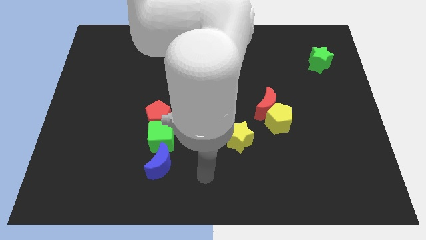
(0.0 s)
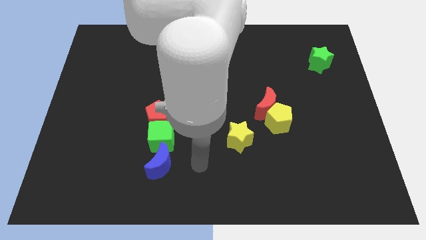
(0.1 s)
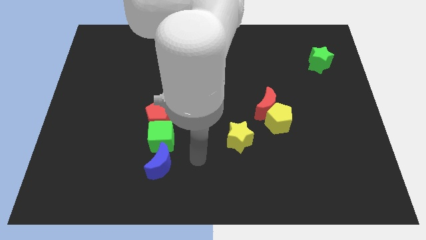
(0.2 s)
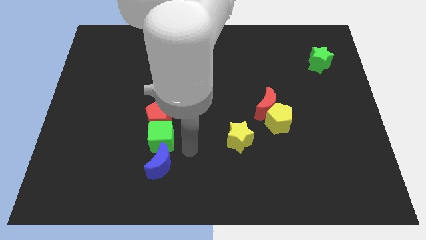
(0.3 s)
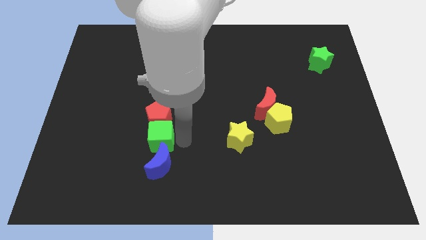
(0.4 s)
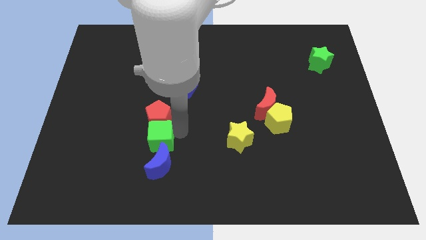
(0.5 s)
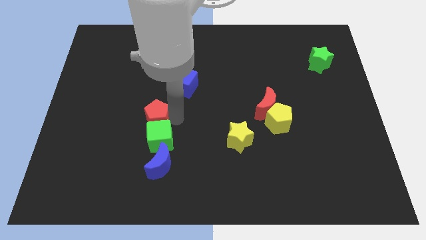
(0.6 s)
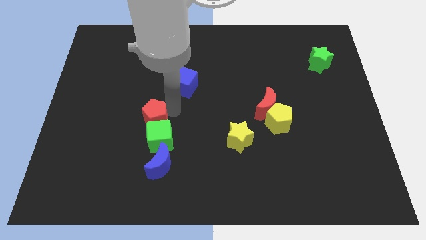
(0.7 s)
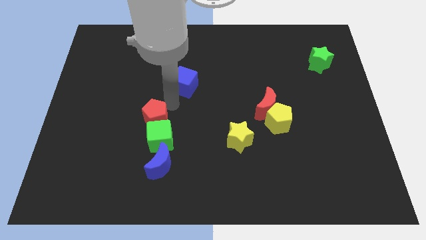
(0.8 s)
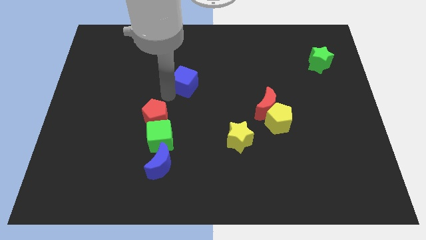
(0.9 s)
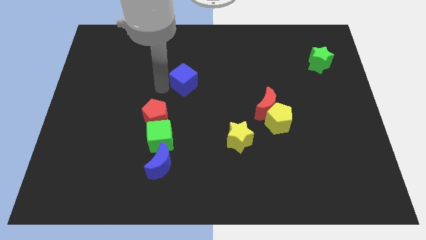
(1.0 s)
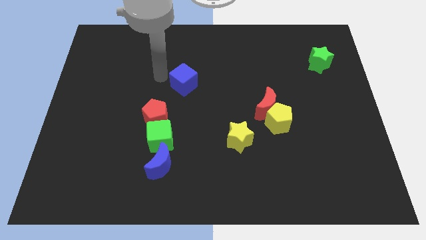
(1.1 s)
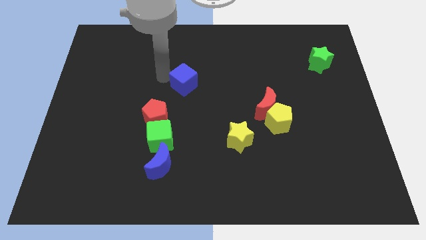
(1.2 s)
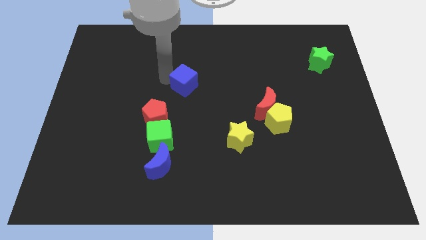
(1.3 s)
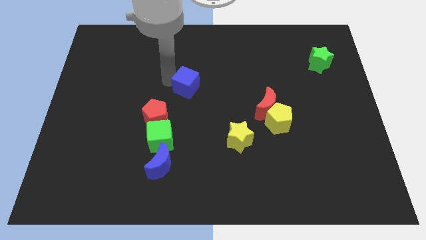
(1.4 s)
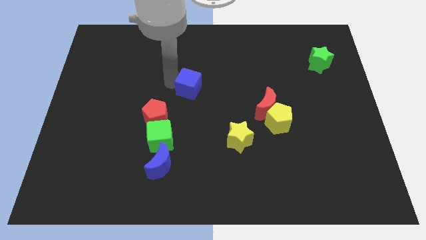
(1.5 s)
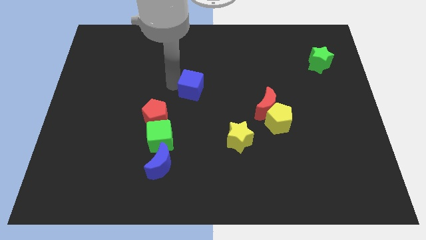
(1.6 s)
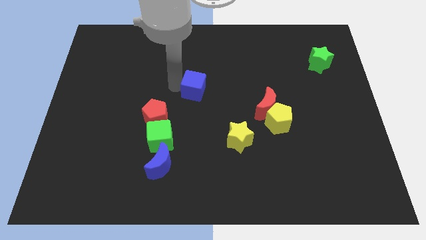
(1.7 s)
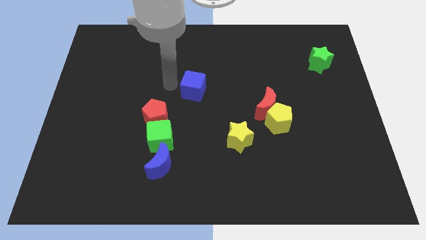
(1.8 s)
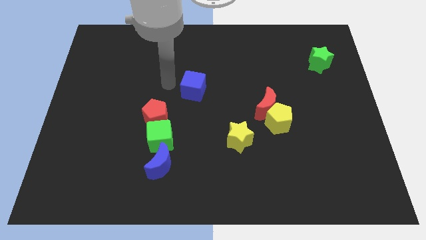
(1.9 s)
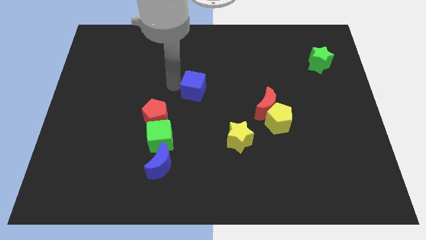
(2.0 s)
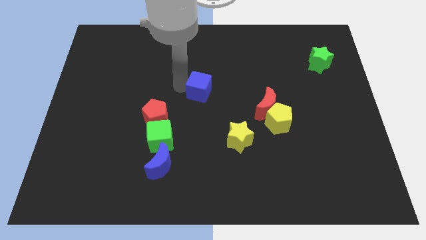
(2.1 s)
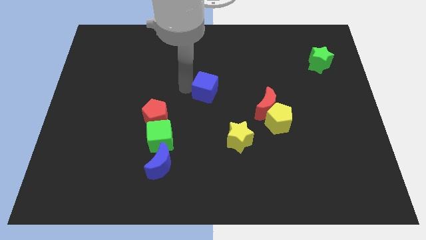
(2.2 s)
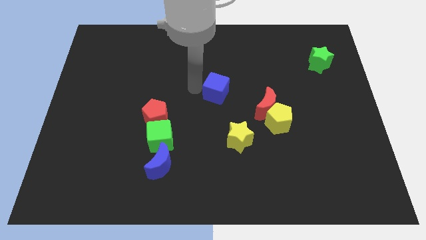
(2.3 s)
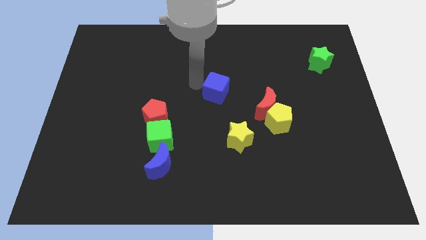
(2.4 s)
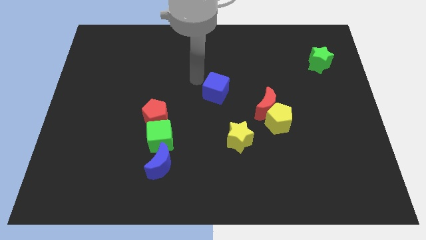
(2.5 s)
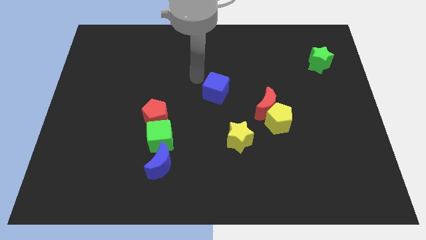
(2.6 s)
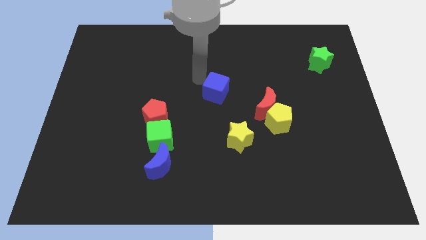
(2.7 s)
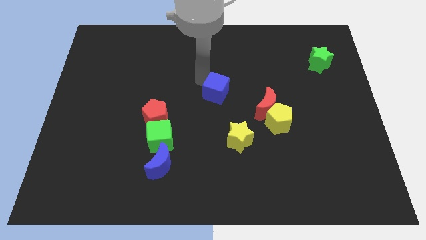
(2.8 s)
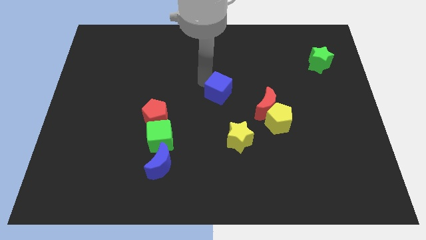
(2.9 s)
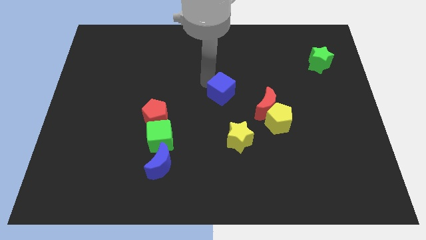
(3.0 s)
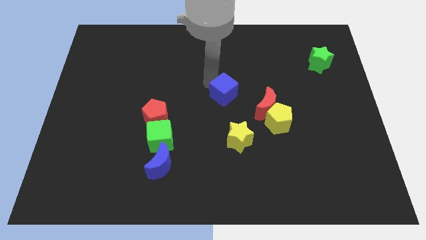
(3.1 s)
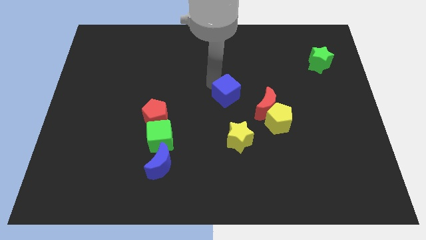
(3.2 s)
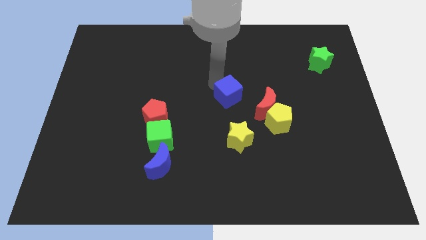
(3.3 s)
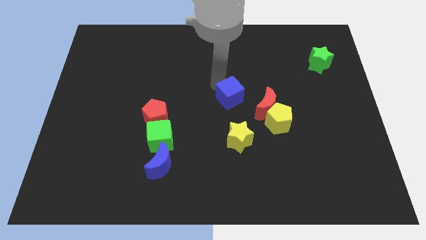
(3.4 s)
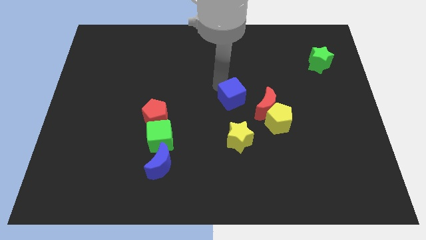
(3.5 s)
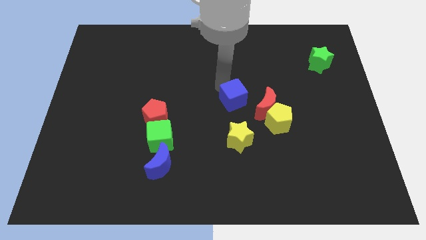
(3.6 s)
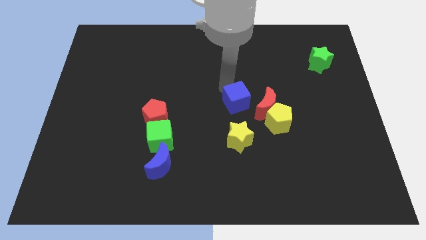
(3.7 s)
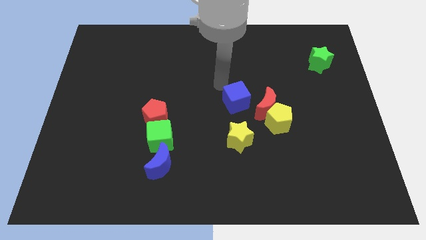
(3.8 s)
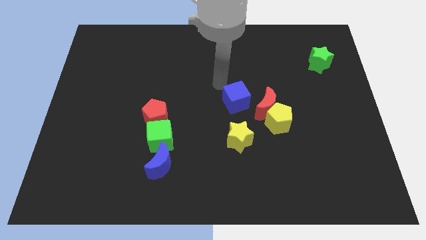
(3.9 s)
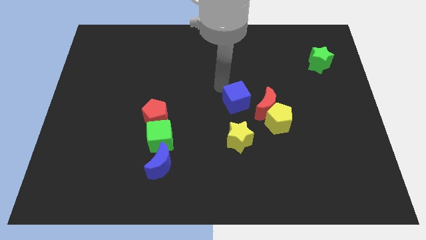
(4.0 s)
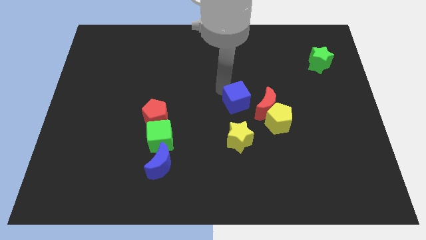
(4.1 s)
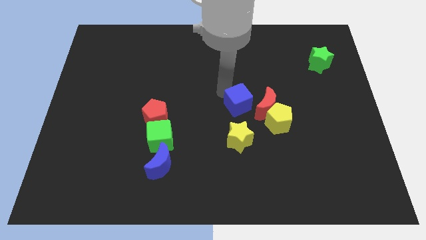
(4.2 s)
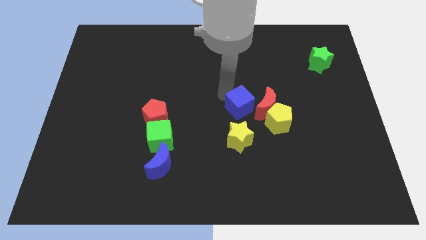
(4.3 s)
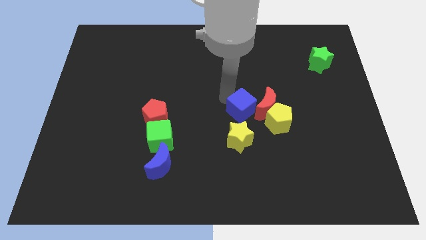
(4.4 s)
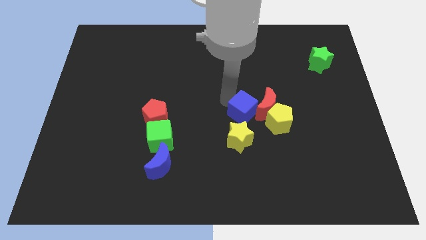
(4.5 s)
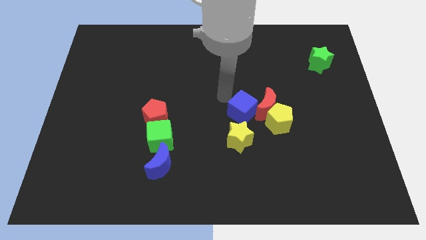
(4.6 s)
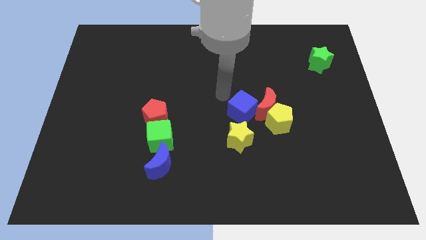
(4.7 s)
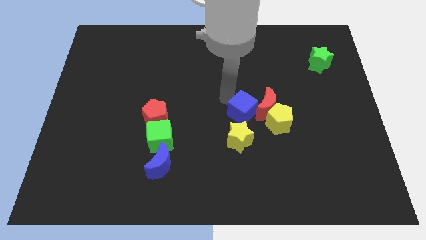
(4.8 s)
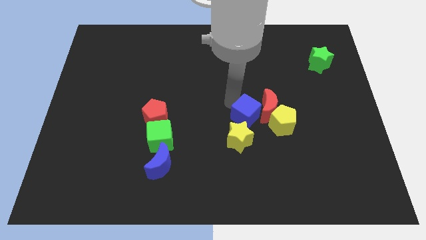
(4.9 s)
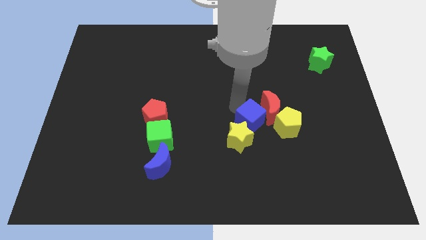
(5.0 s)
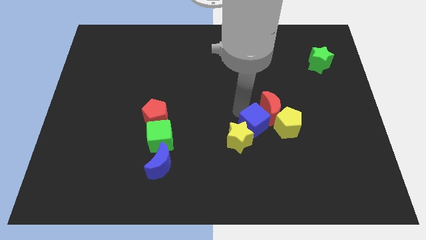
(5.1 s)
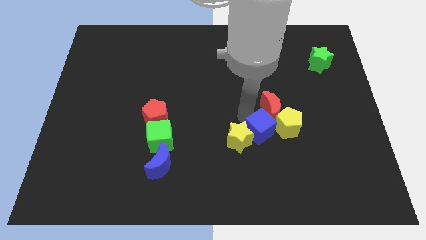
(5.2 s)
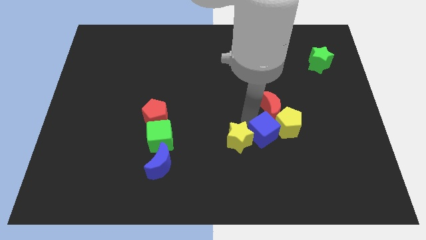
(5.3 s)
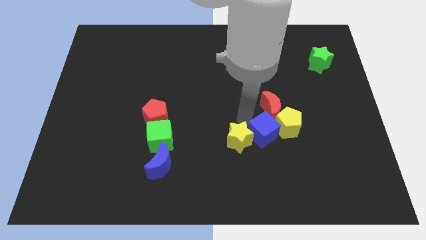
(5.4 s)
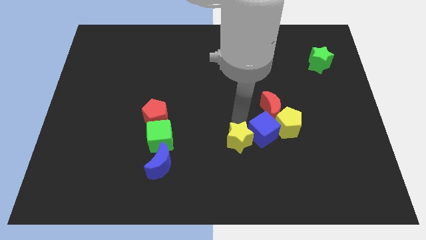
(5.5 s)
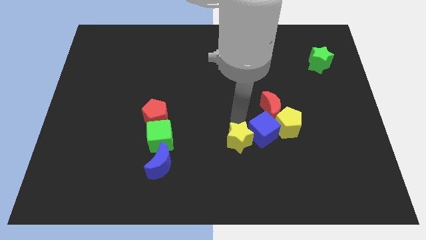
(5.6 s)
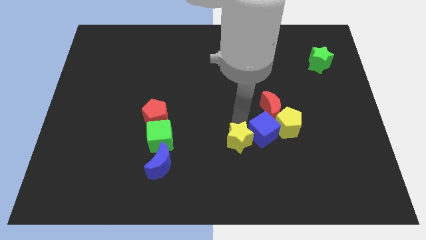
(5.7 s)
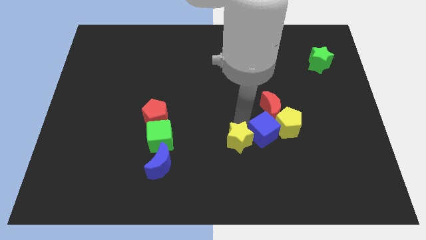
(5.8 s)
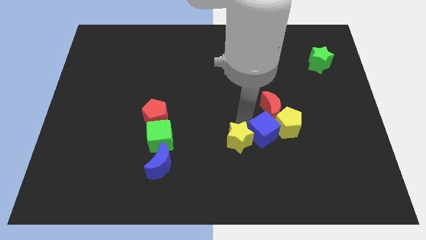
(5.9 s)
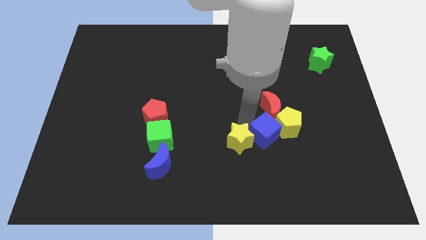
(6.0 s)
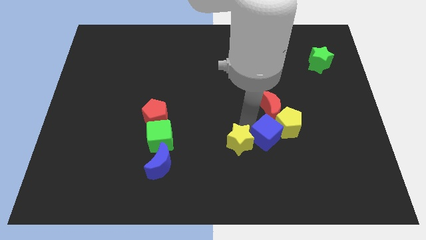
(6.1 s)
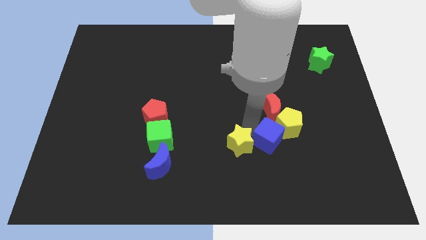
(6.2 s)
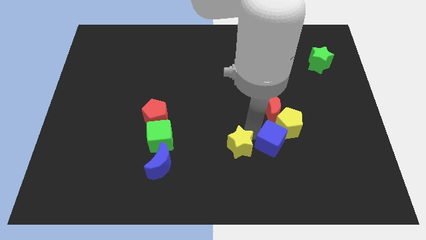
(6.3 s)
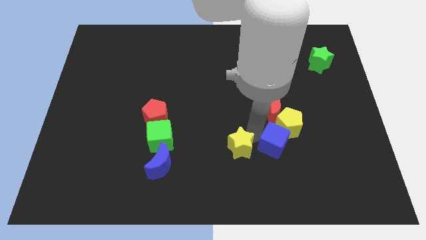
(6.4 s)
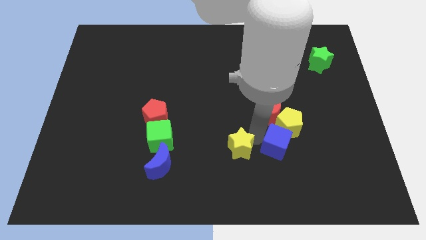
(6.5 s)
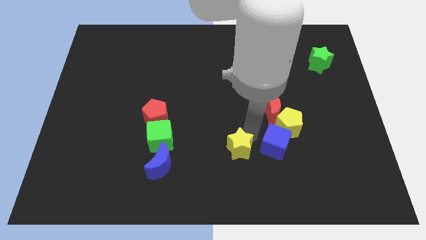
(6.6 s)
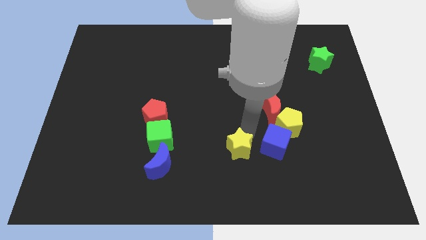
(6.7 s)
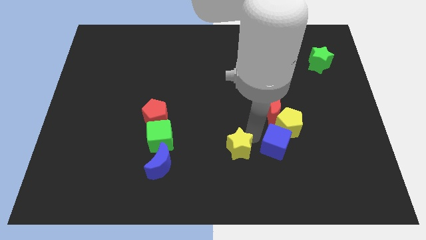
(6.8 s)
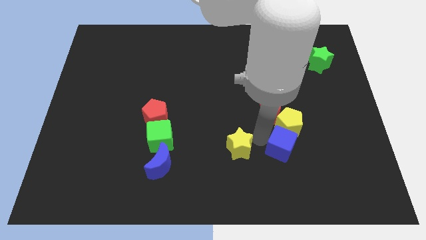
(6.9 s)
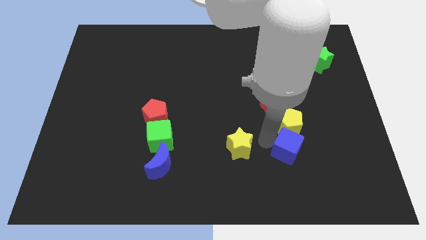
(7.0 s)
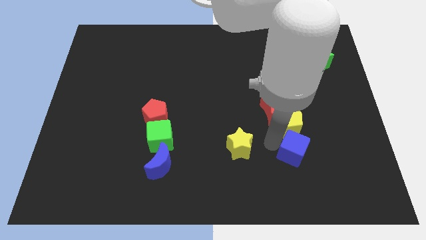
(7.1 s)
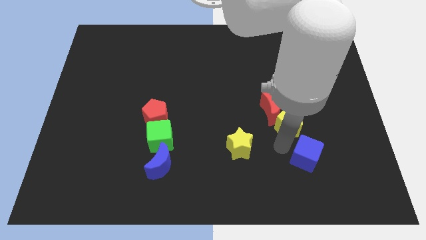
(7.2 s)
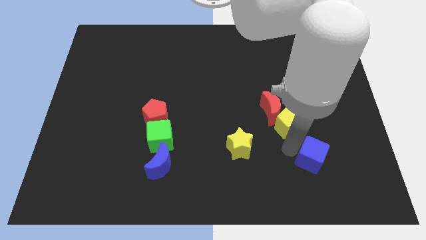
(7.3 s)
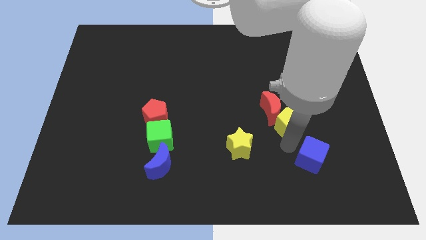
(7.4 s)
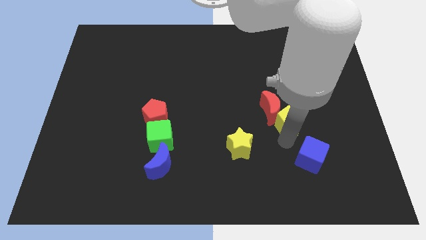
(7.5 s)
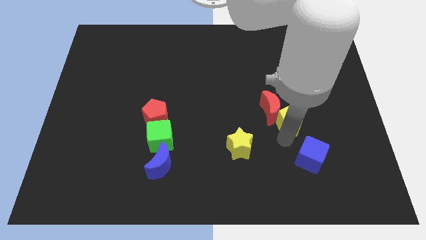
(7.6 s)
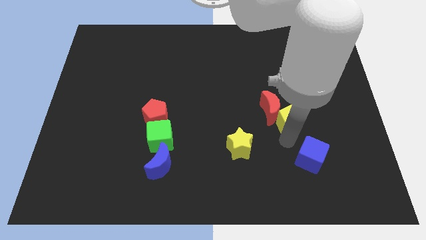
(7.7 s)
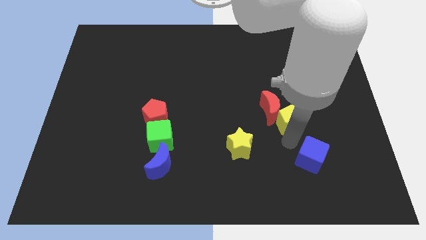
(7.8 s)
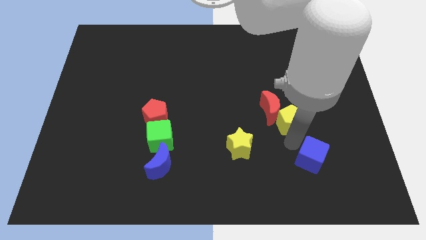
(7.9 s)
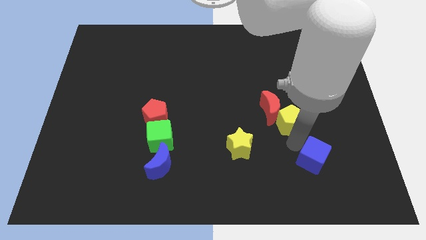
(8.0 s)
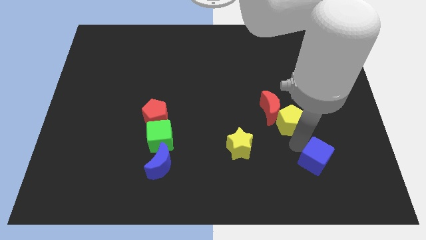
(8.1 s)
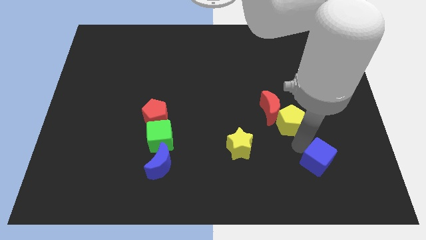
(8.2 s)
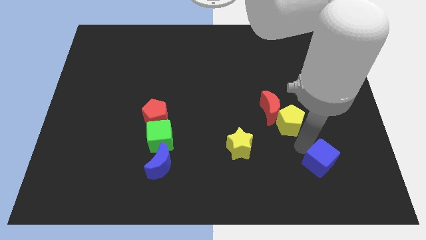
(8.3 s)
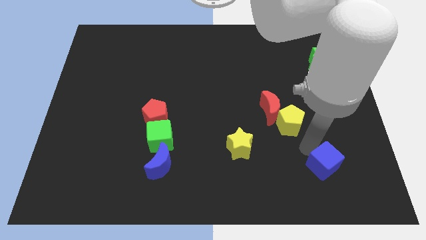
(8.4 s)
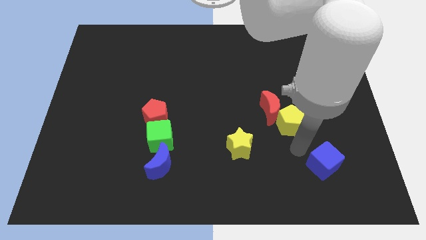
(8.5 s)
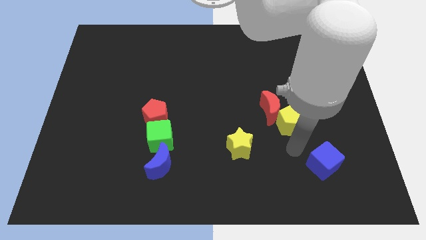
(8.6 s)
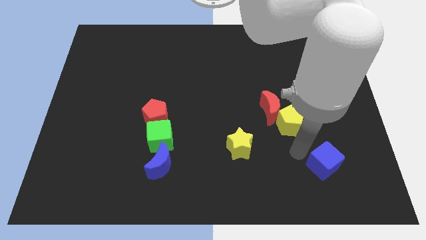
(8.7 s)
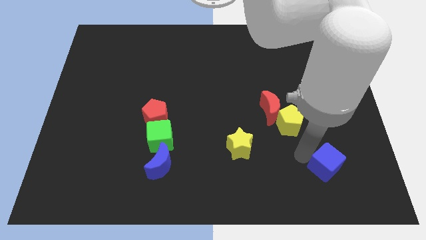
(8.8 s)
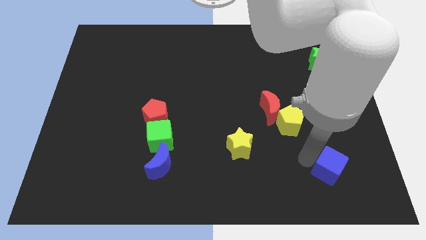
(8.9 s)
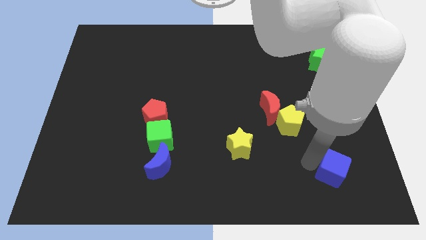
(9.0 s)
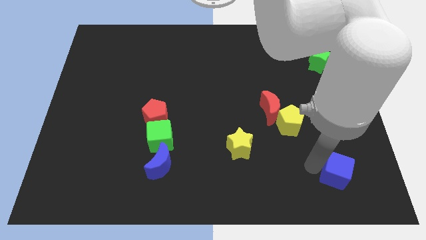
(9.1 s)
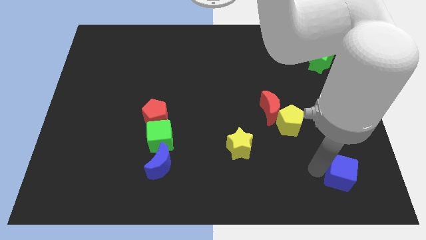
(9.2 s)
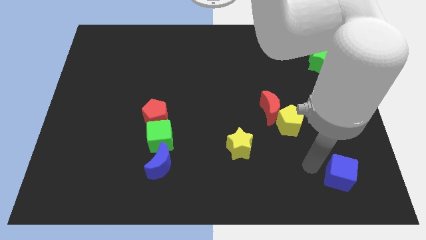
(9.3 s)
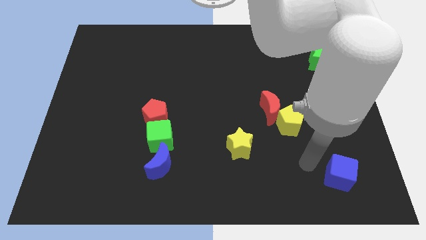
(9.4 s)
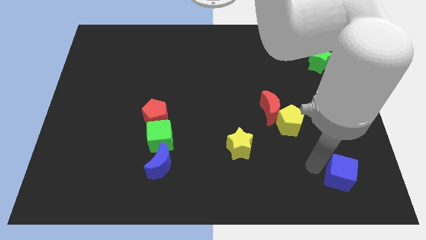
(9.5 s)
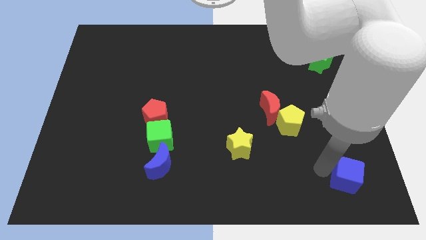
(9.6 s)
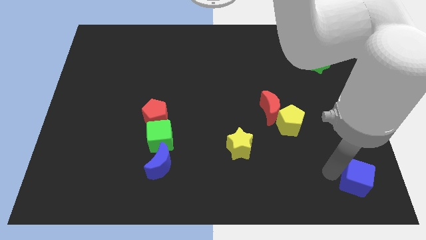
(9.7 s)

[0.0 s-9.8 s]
move the blue cube to the lower right corner
